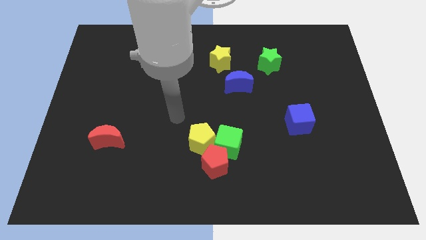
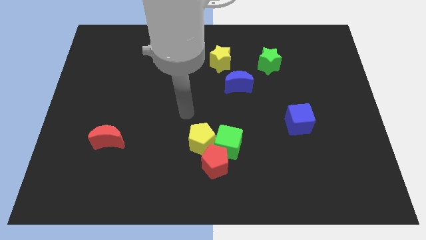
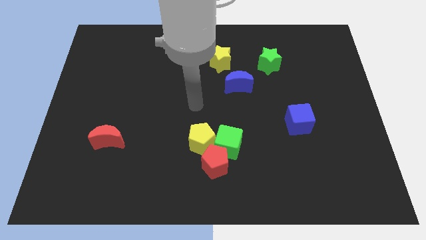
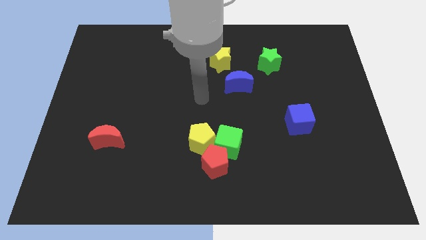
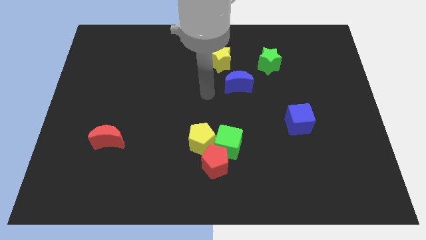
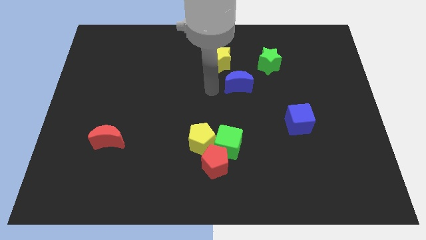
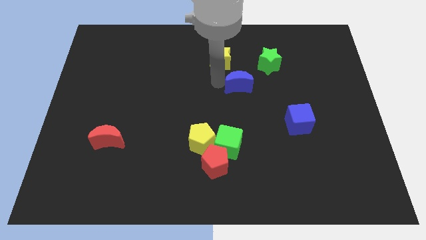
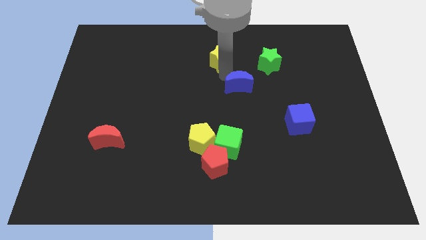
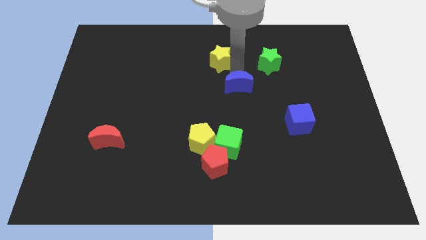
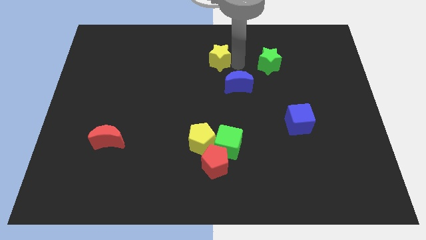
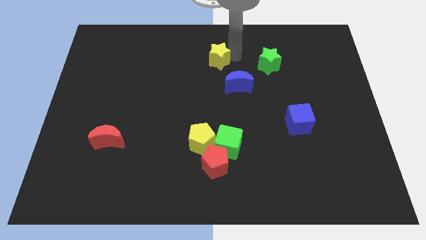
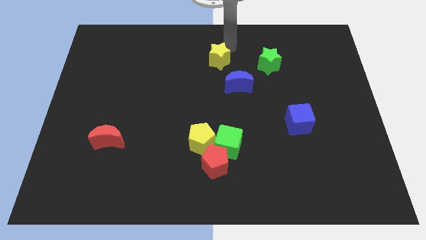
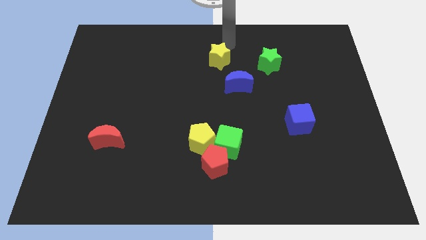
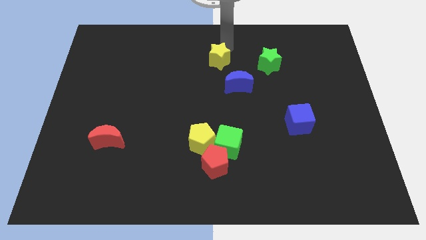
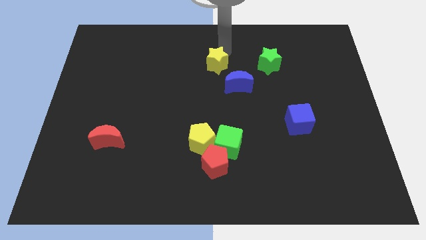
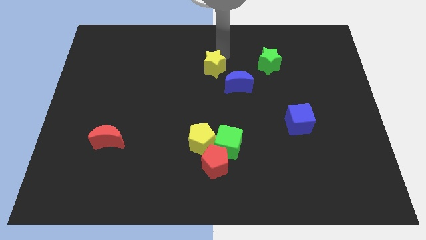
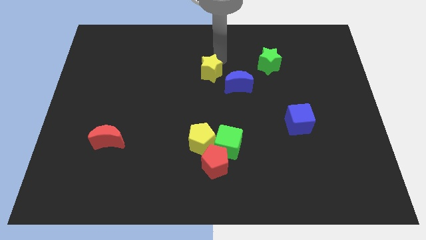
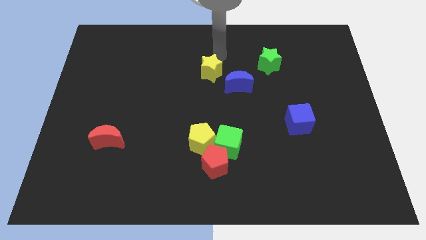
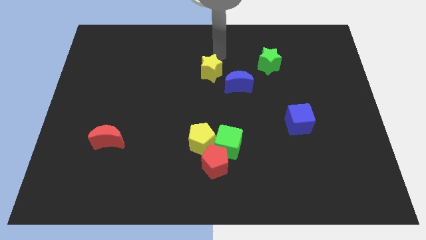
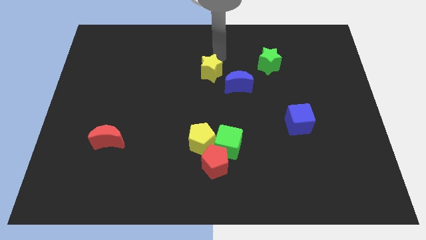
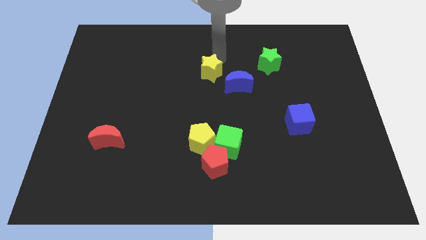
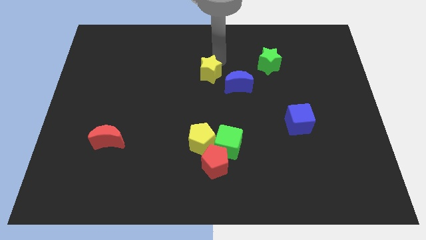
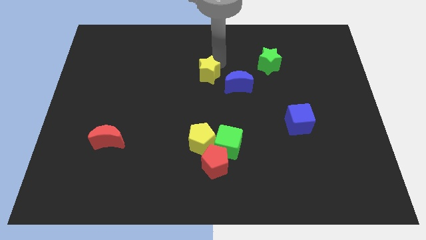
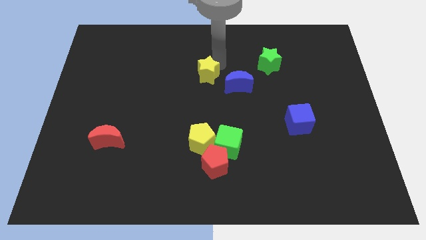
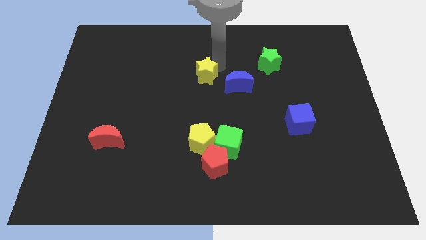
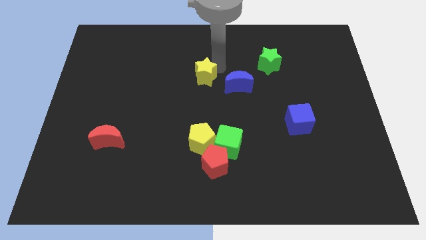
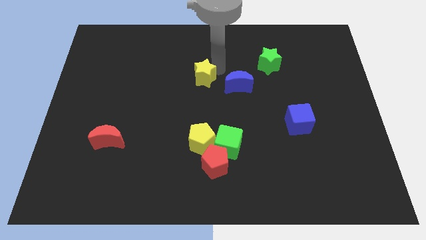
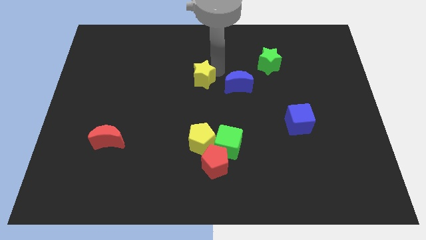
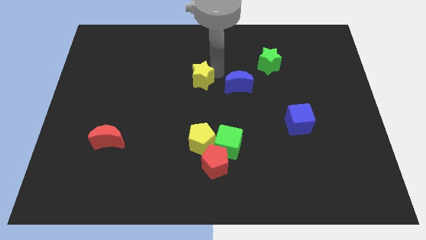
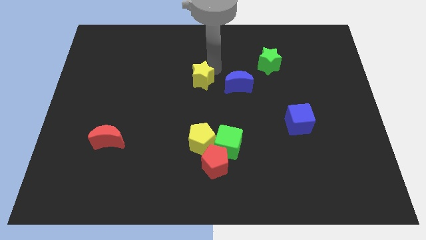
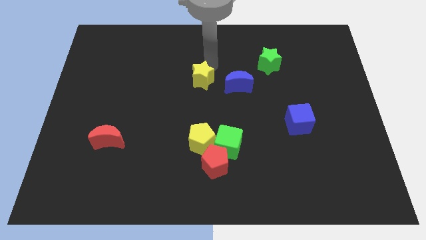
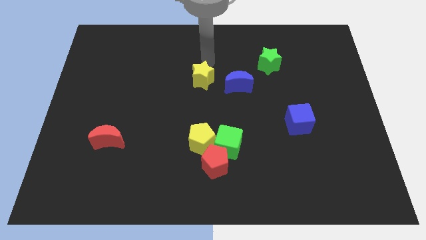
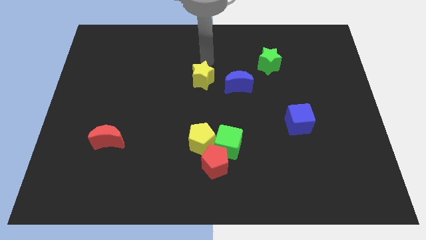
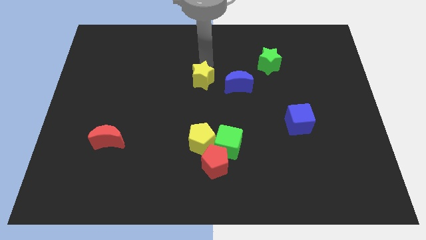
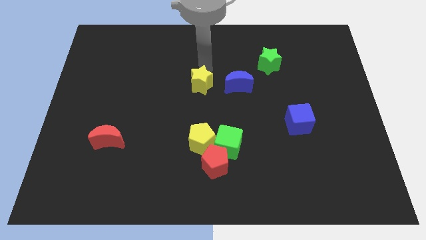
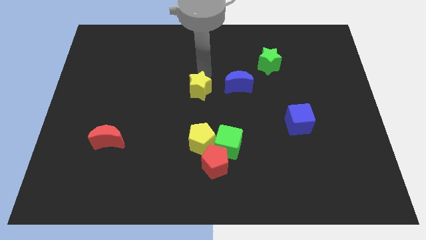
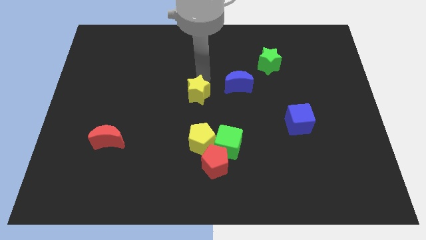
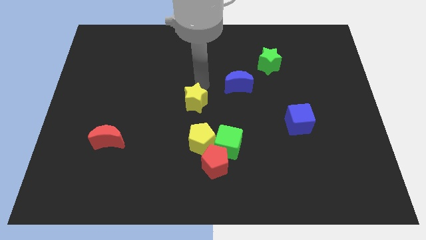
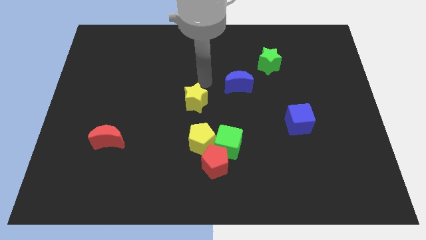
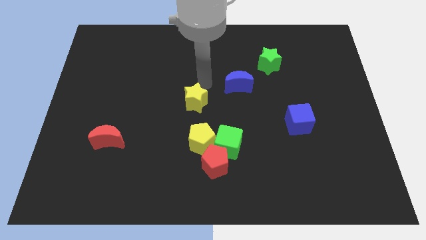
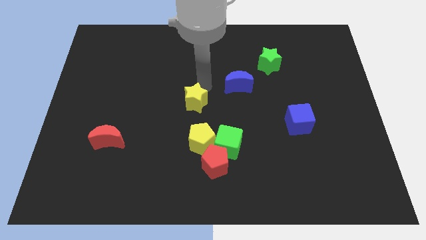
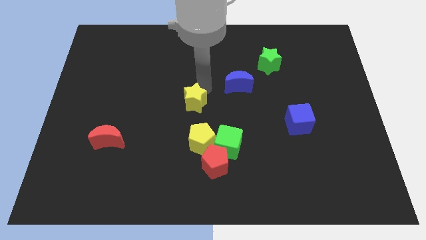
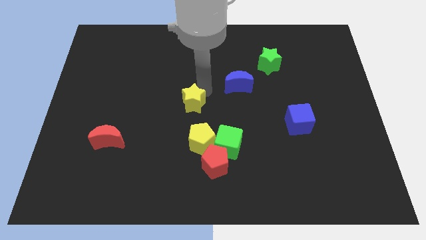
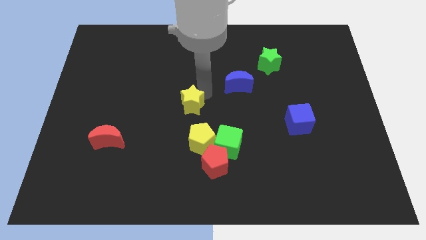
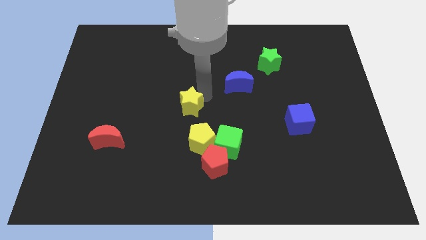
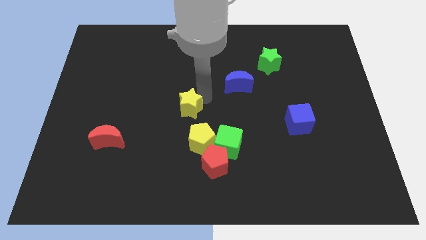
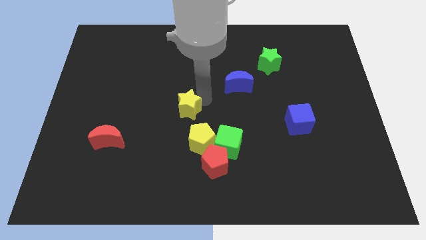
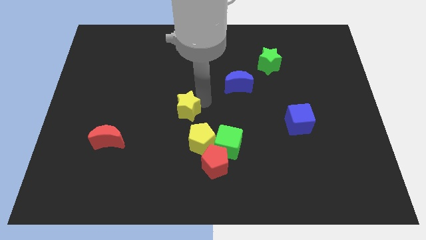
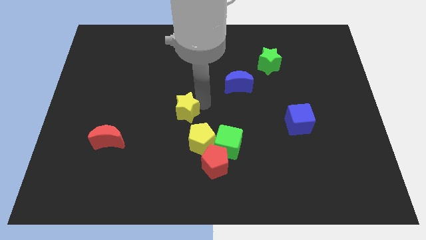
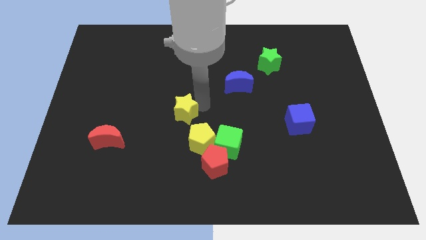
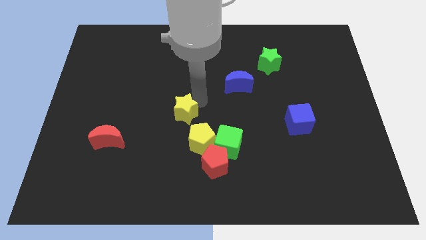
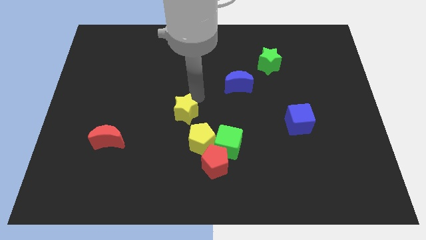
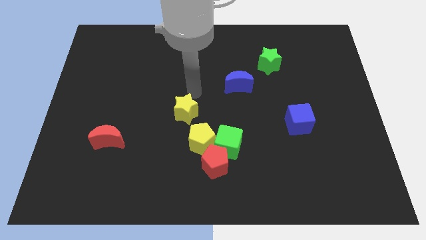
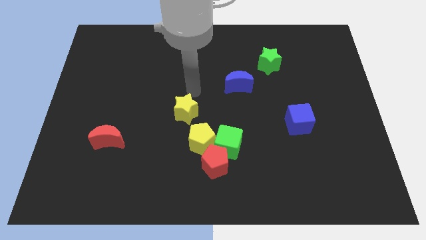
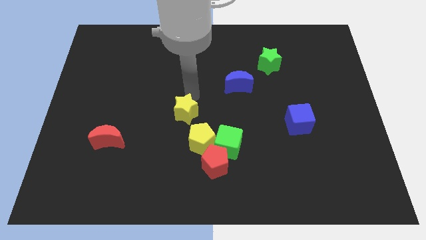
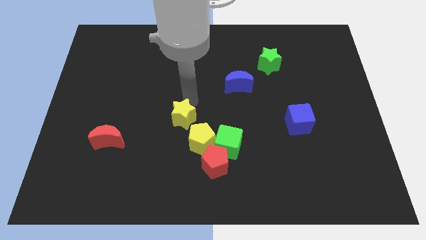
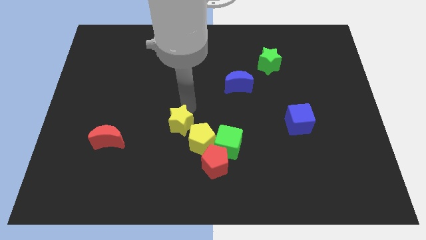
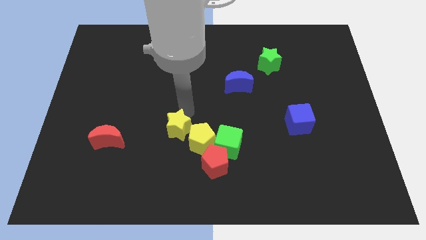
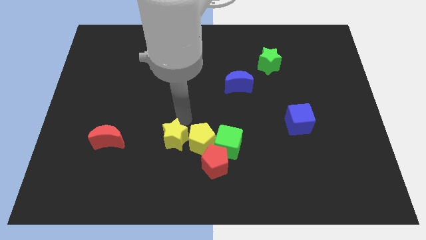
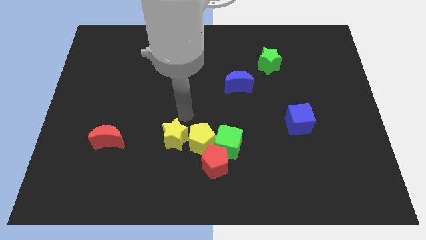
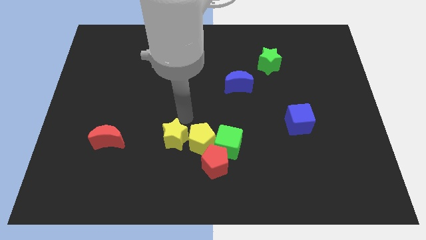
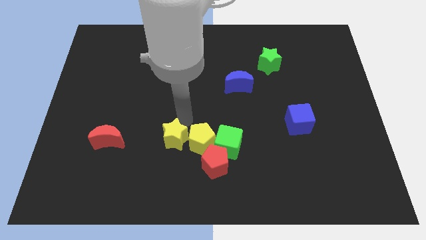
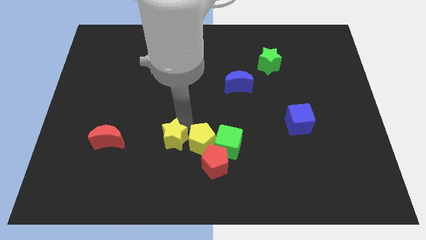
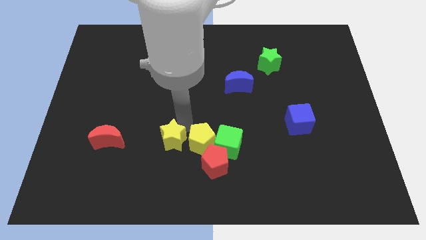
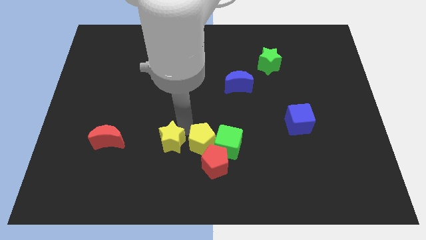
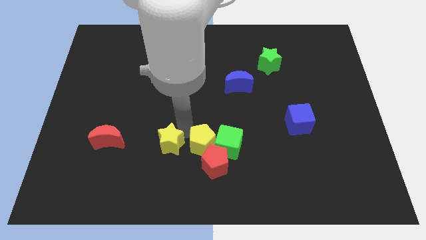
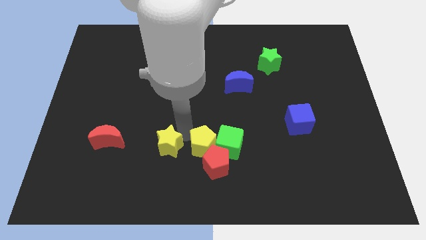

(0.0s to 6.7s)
move the yellow star just left of the red pentagon

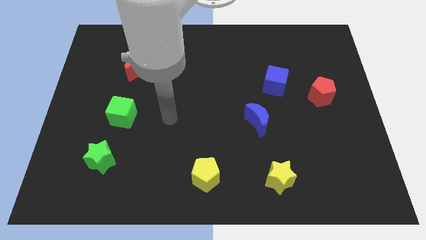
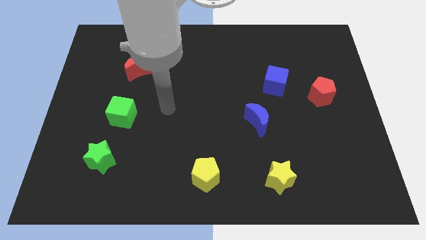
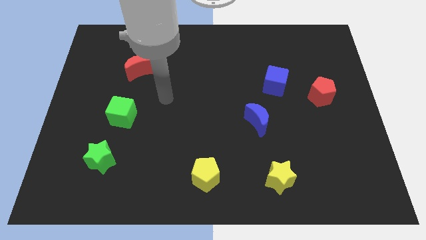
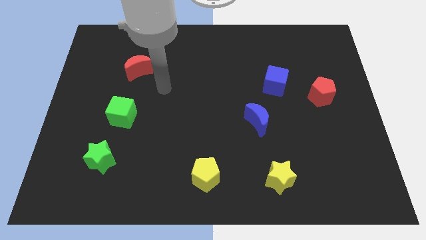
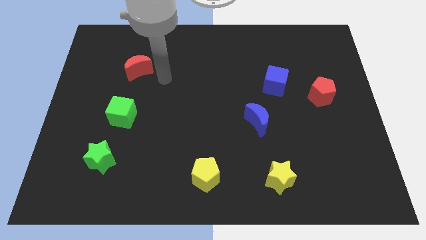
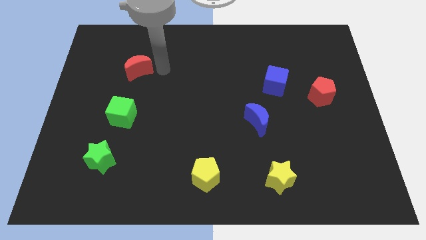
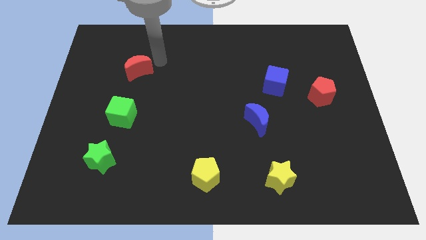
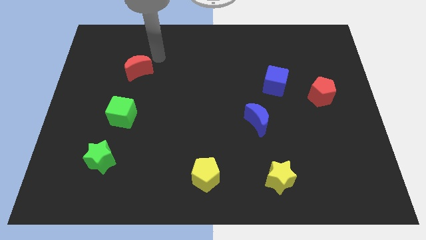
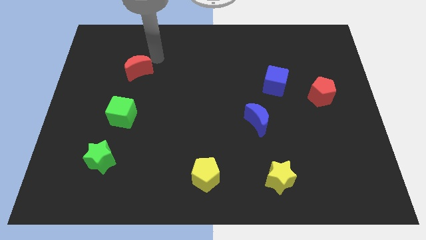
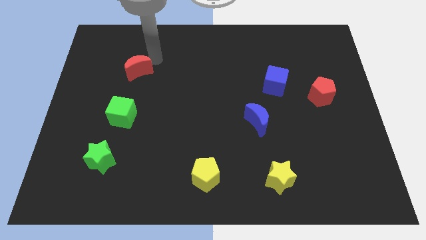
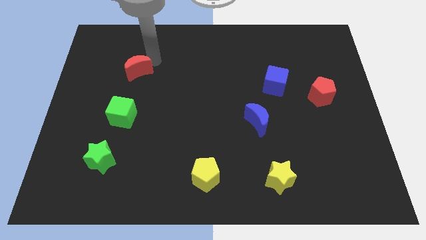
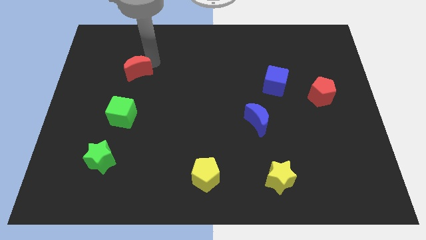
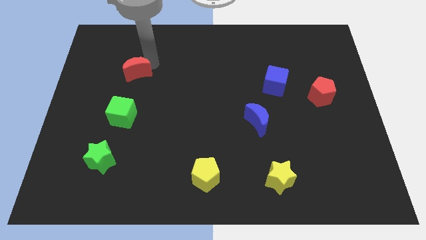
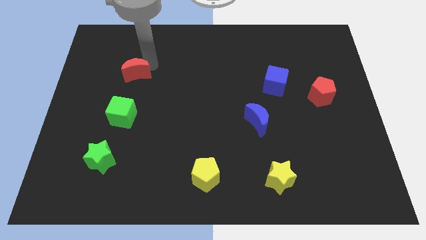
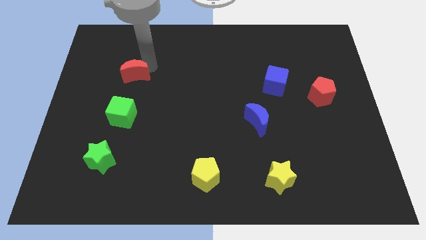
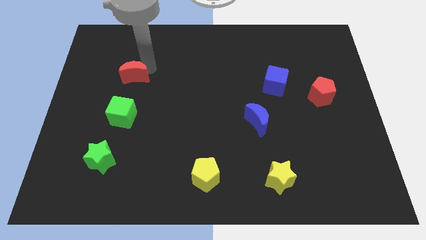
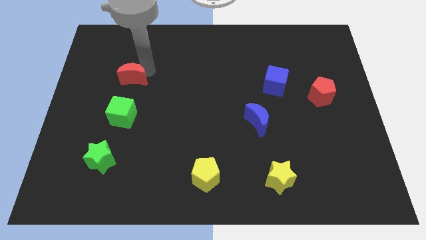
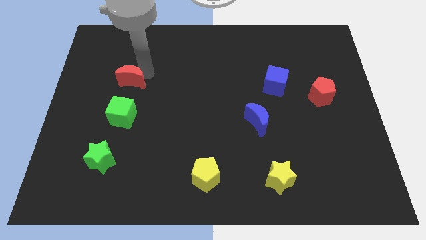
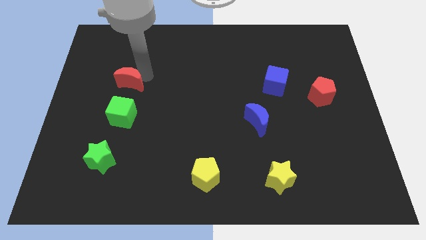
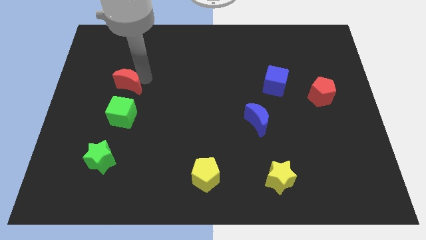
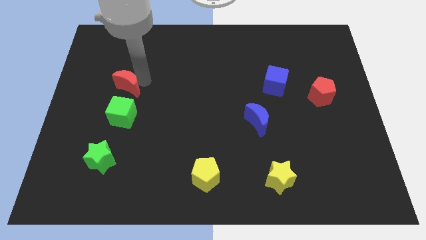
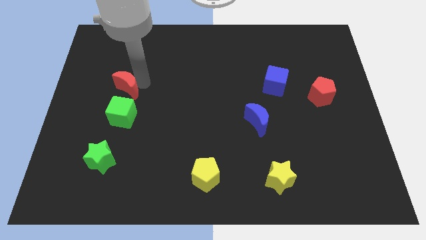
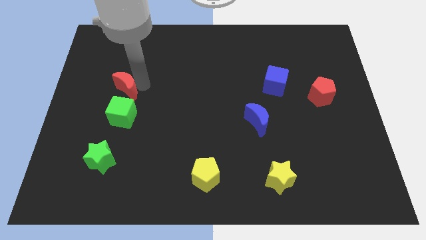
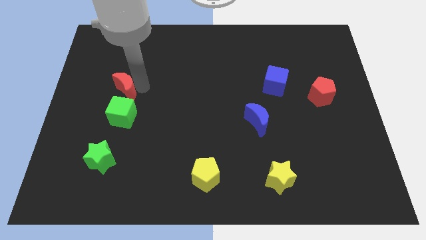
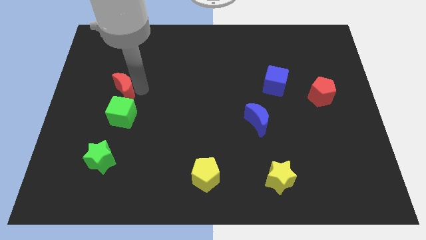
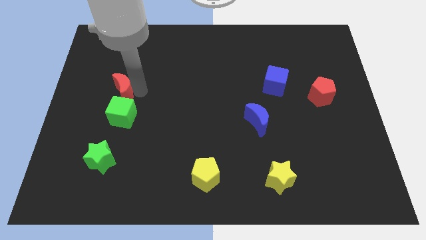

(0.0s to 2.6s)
push the red moon to the top left of the green cube
